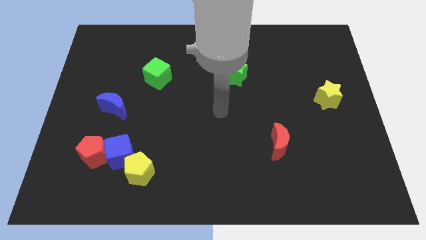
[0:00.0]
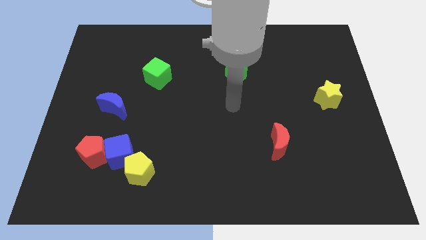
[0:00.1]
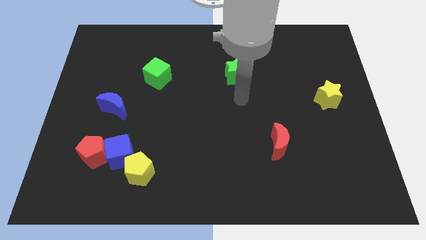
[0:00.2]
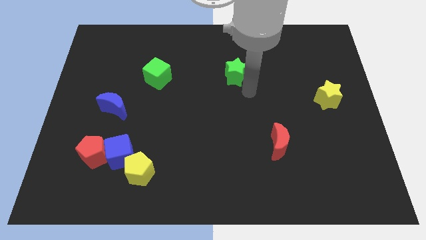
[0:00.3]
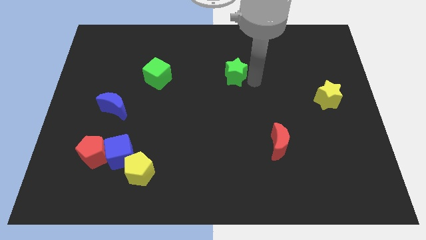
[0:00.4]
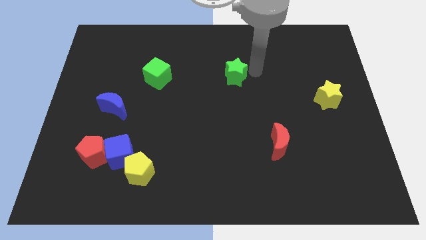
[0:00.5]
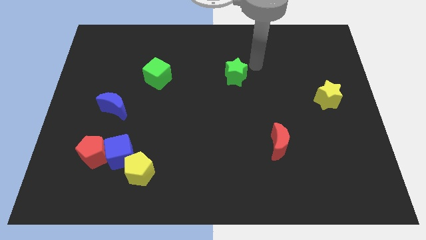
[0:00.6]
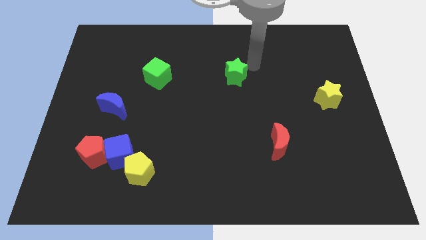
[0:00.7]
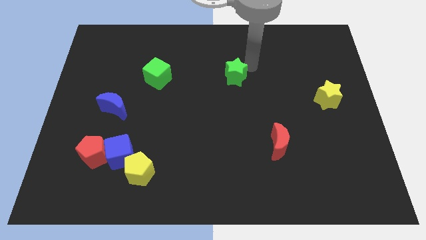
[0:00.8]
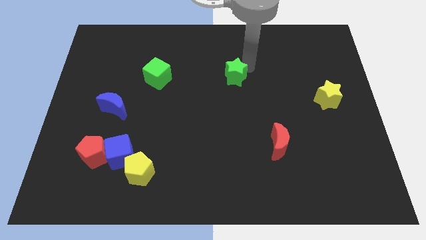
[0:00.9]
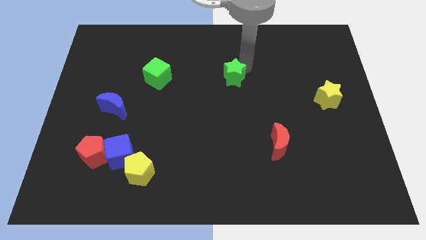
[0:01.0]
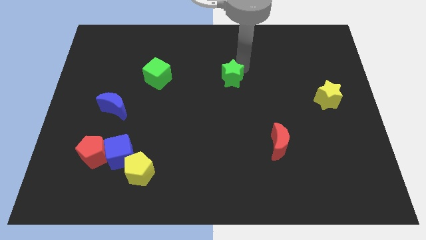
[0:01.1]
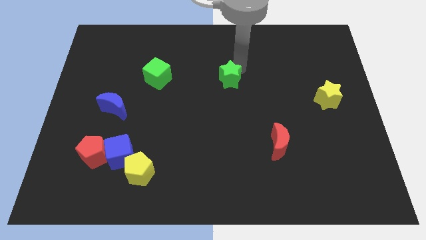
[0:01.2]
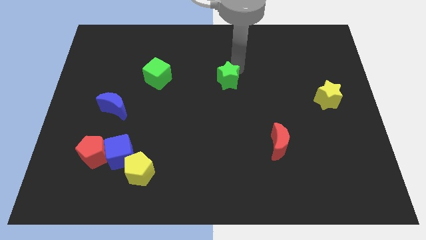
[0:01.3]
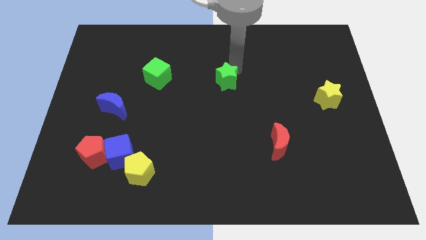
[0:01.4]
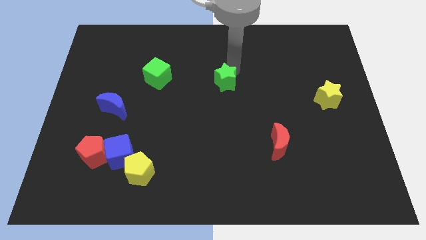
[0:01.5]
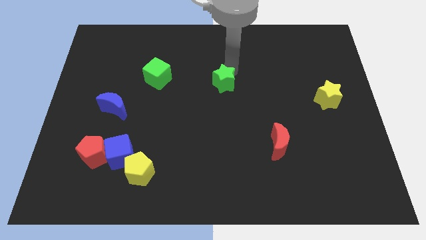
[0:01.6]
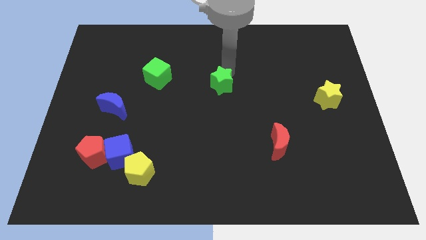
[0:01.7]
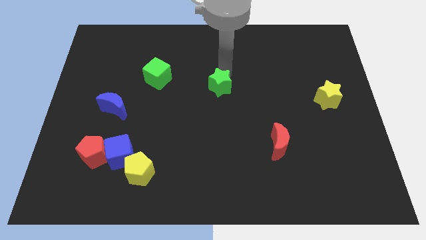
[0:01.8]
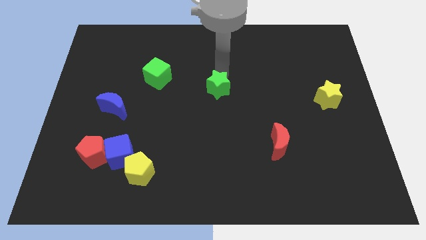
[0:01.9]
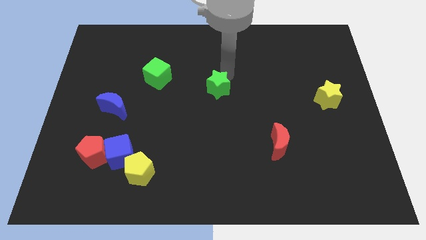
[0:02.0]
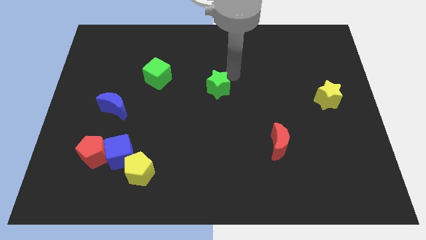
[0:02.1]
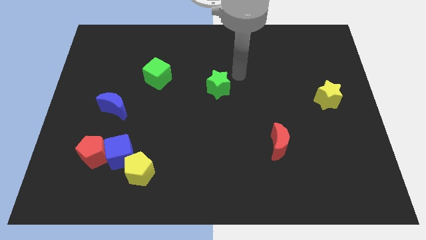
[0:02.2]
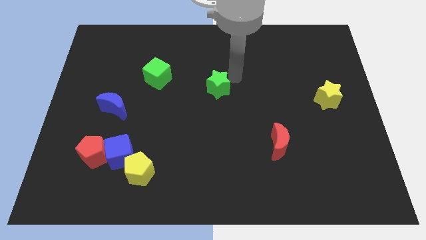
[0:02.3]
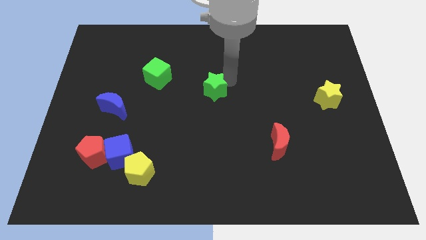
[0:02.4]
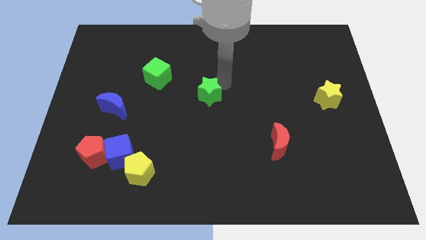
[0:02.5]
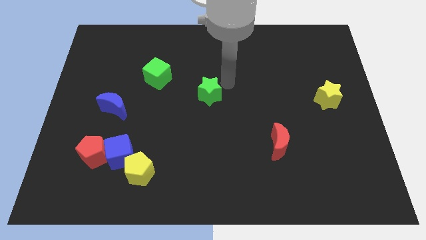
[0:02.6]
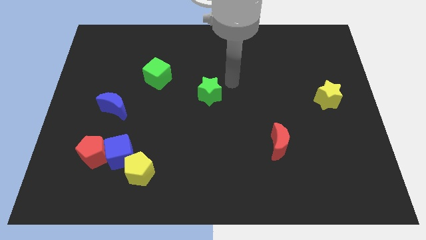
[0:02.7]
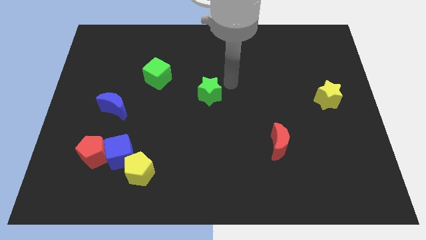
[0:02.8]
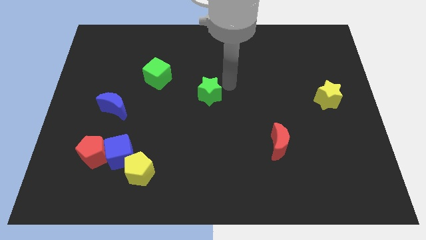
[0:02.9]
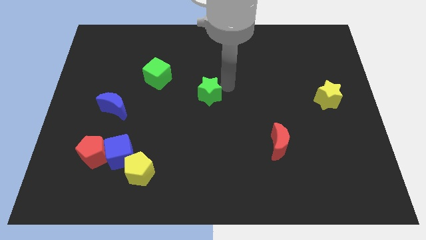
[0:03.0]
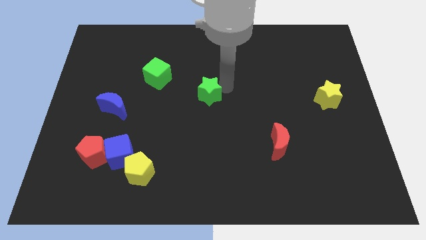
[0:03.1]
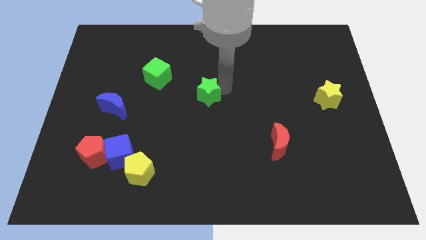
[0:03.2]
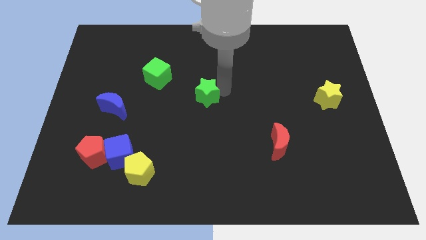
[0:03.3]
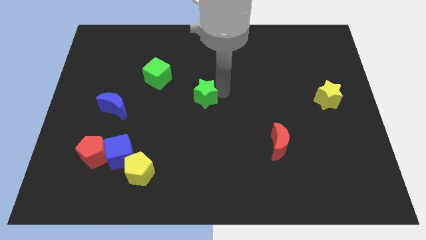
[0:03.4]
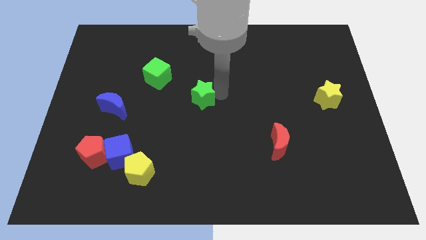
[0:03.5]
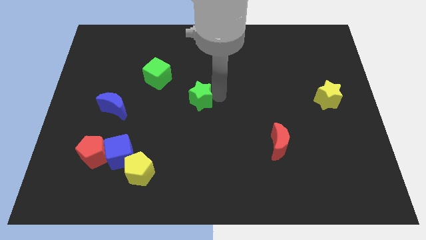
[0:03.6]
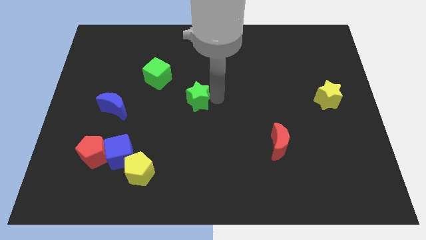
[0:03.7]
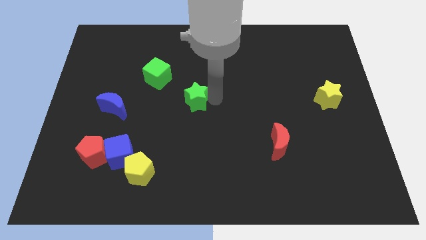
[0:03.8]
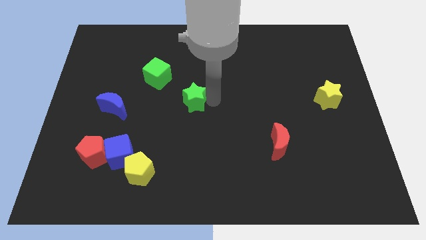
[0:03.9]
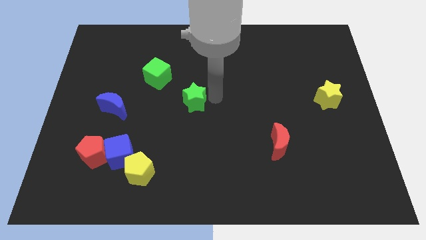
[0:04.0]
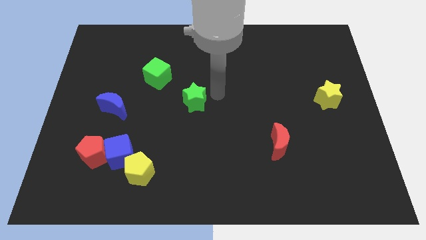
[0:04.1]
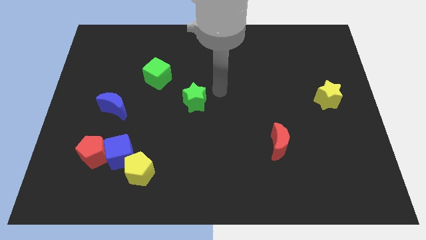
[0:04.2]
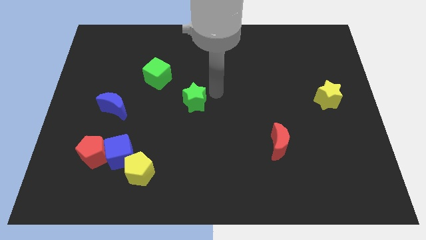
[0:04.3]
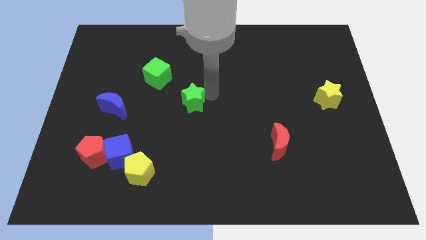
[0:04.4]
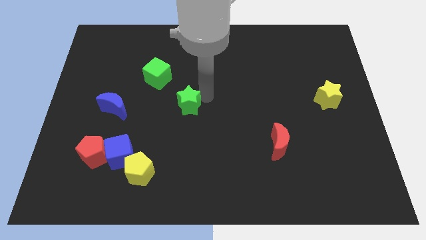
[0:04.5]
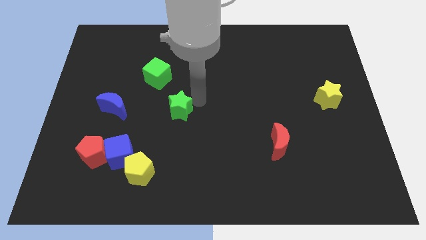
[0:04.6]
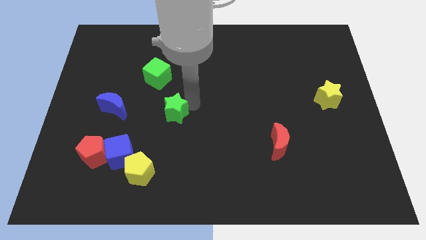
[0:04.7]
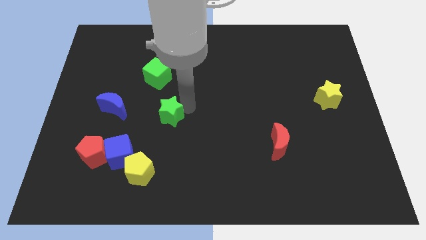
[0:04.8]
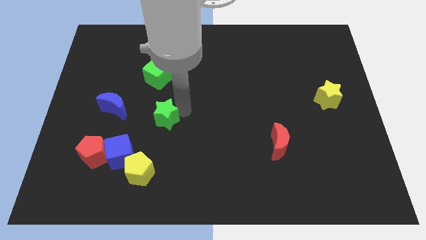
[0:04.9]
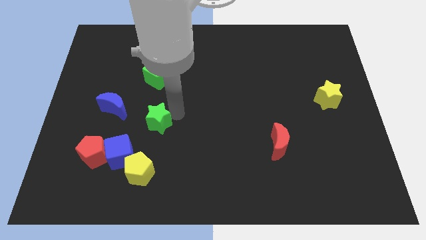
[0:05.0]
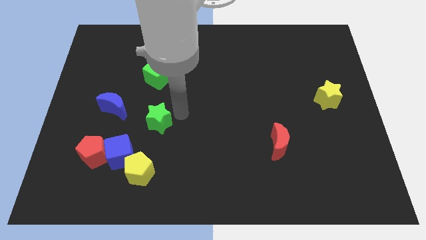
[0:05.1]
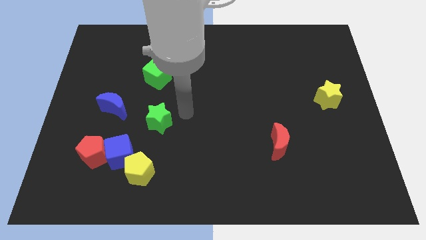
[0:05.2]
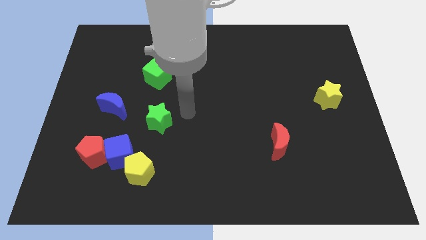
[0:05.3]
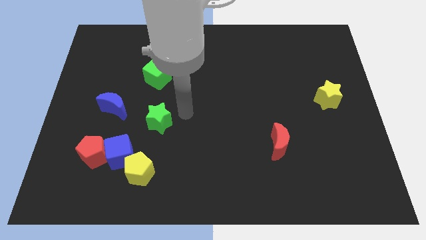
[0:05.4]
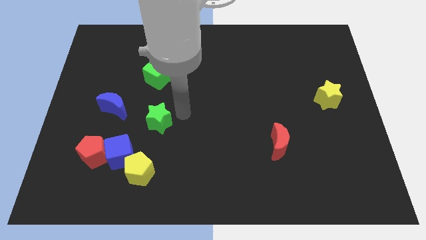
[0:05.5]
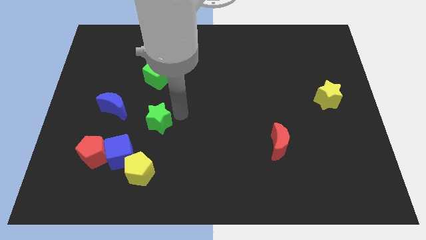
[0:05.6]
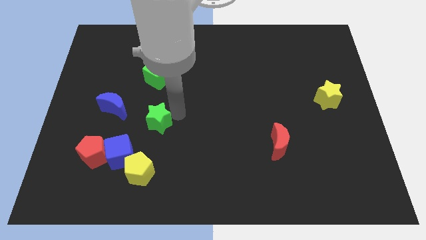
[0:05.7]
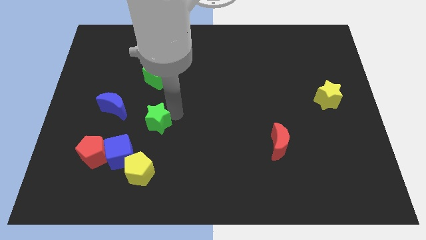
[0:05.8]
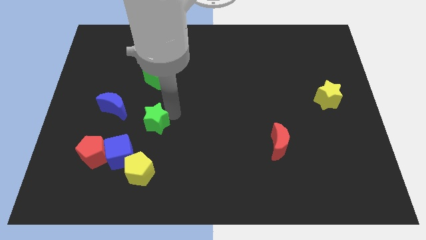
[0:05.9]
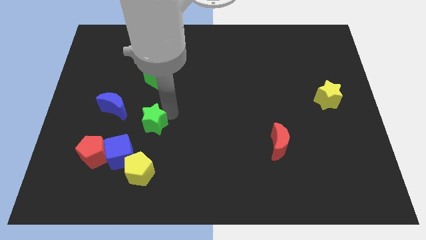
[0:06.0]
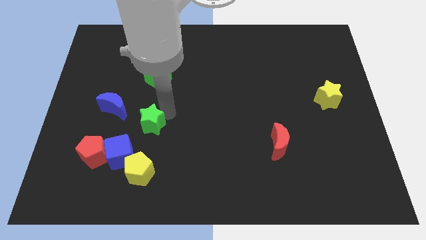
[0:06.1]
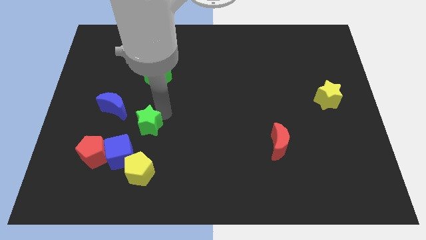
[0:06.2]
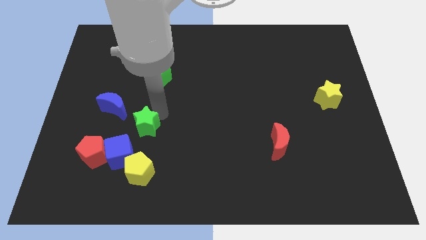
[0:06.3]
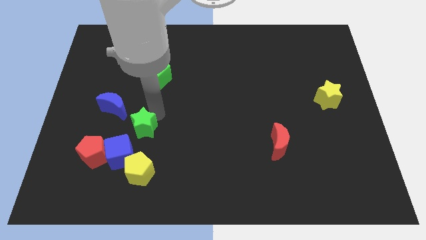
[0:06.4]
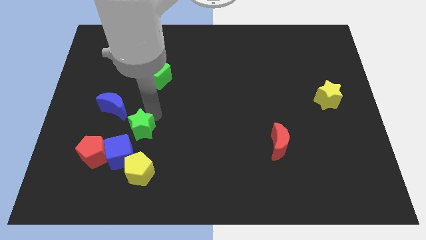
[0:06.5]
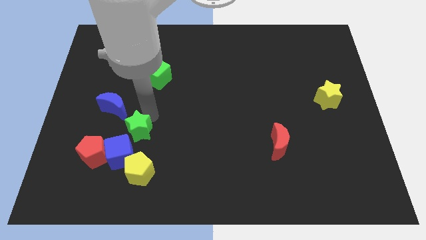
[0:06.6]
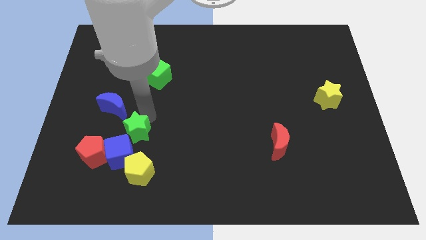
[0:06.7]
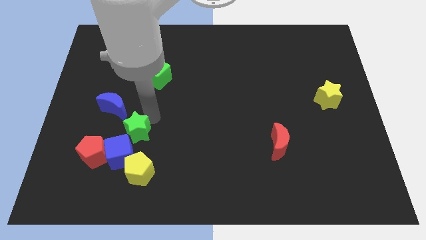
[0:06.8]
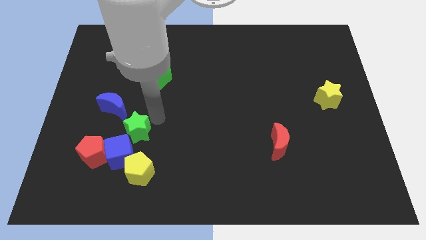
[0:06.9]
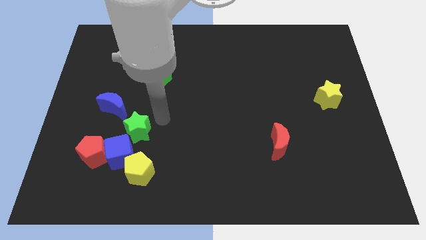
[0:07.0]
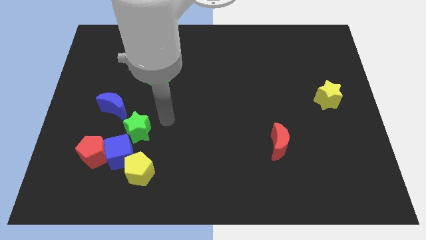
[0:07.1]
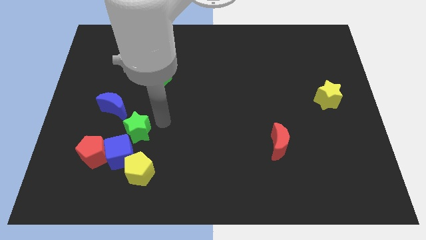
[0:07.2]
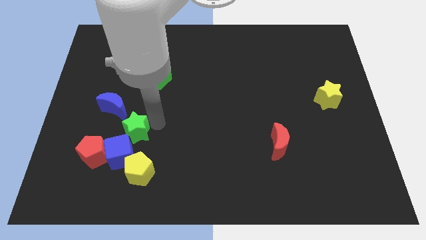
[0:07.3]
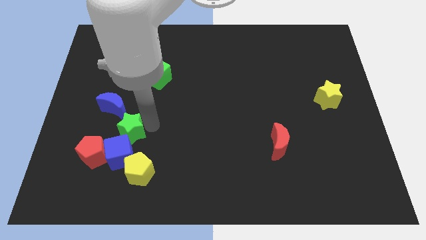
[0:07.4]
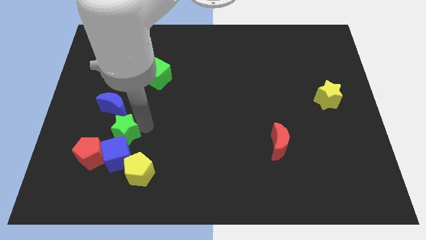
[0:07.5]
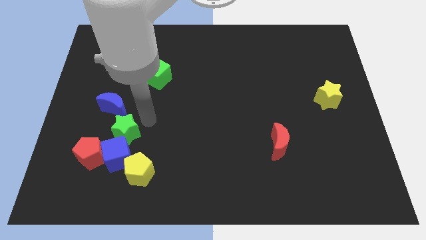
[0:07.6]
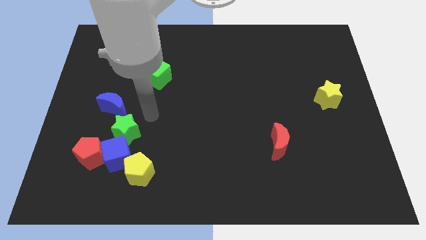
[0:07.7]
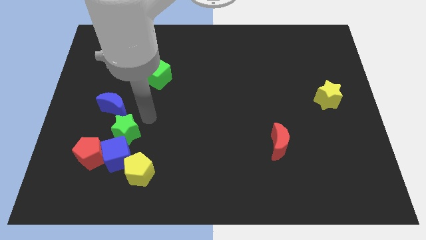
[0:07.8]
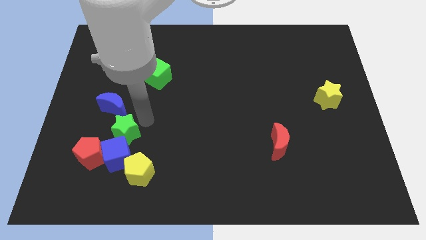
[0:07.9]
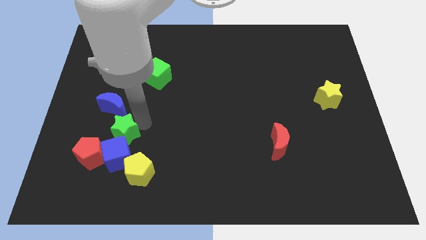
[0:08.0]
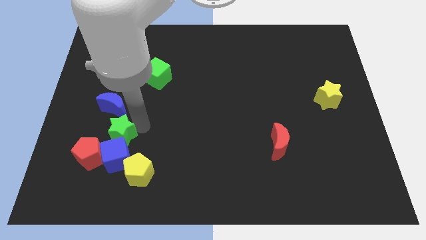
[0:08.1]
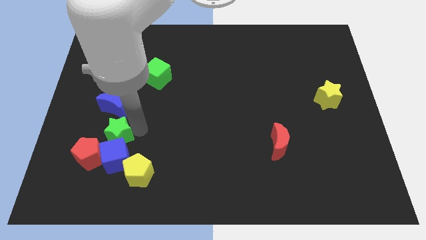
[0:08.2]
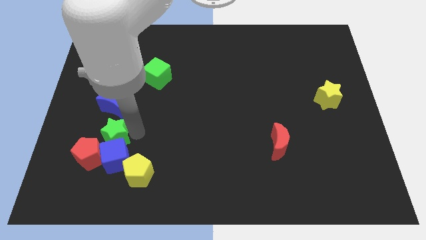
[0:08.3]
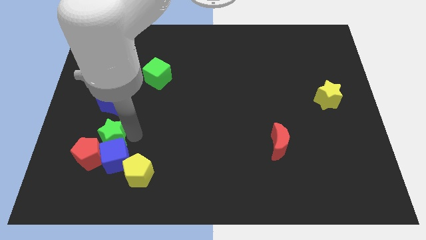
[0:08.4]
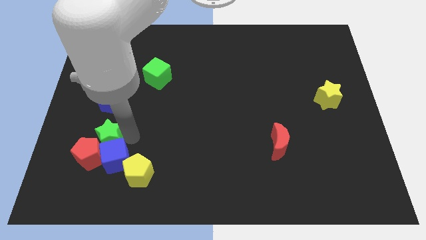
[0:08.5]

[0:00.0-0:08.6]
slide the green star next to the red pentagon
